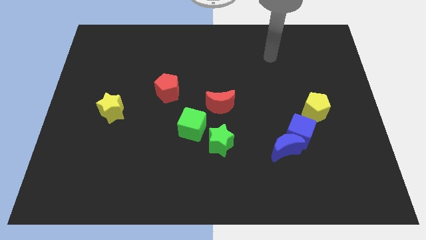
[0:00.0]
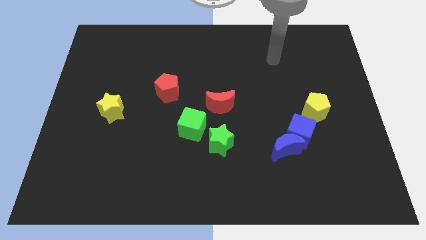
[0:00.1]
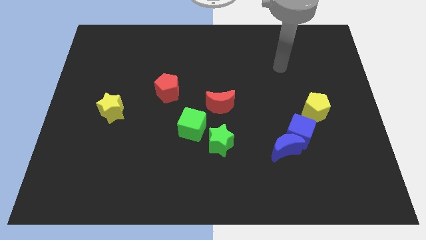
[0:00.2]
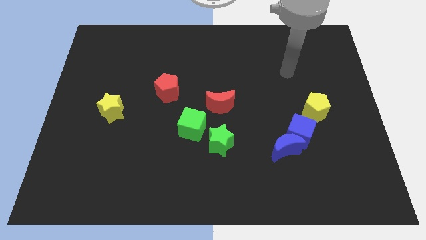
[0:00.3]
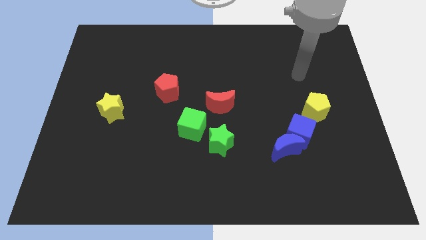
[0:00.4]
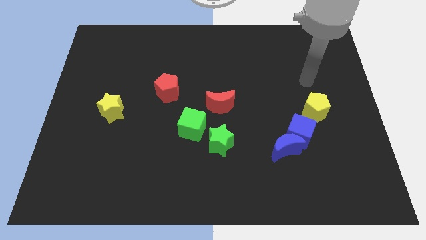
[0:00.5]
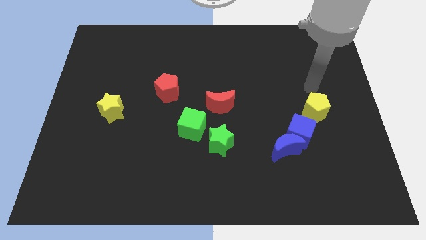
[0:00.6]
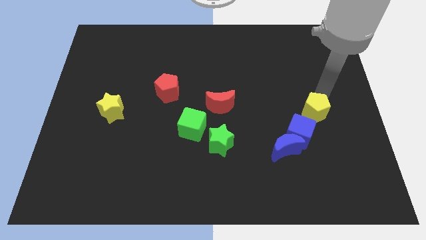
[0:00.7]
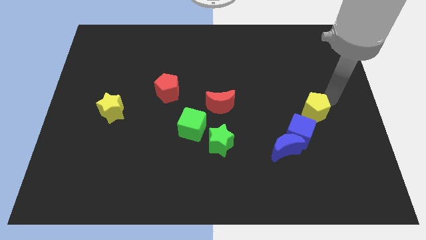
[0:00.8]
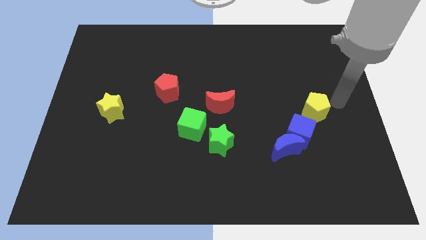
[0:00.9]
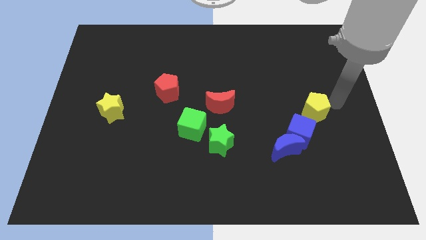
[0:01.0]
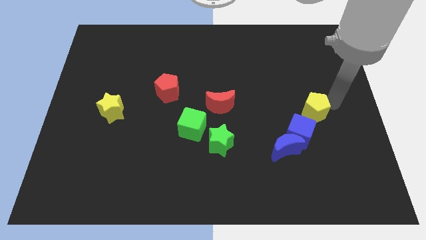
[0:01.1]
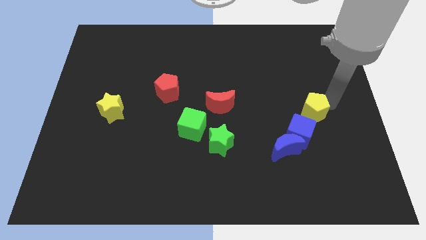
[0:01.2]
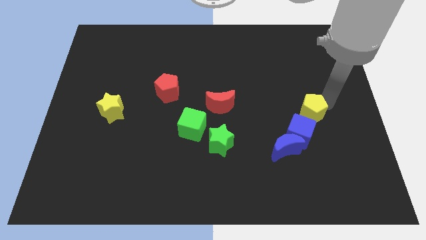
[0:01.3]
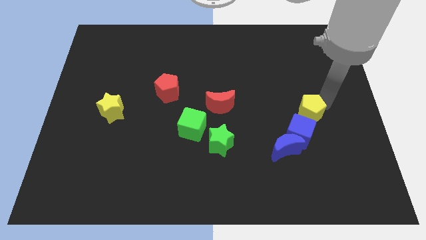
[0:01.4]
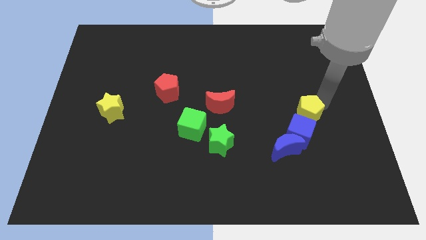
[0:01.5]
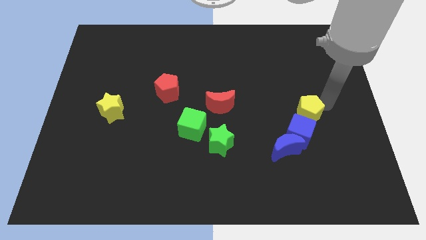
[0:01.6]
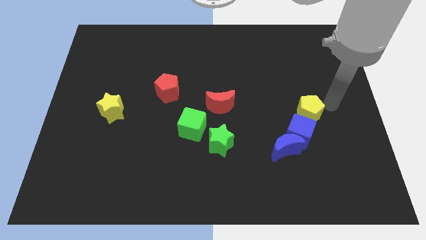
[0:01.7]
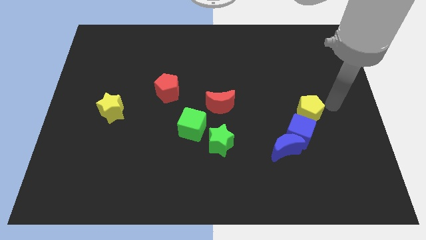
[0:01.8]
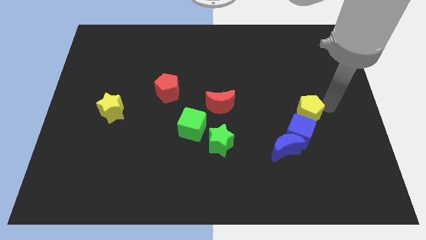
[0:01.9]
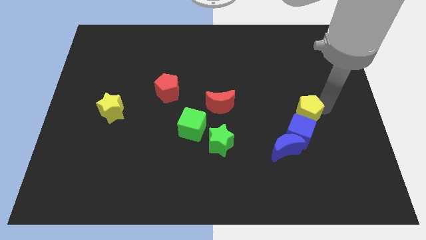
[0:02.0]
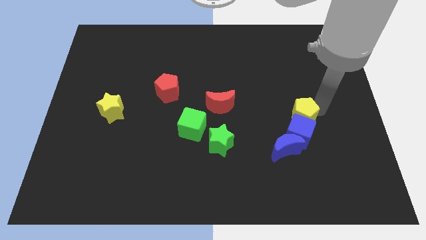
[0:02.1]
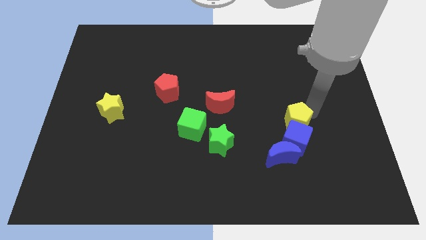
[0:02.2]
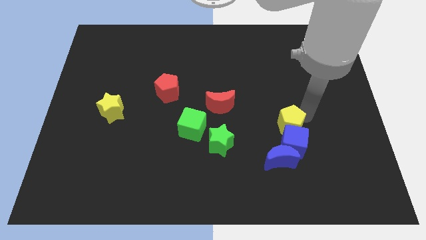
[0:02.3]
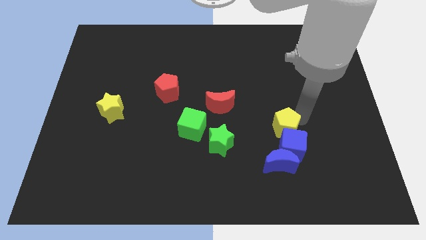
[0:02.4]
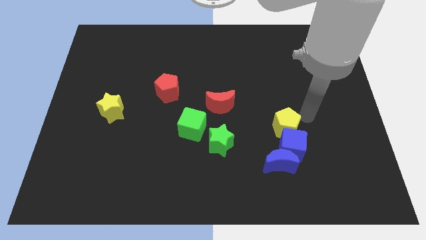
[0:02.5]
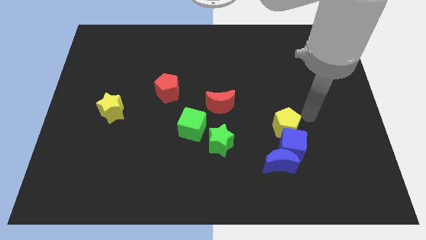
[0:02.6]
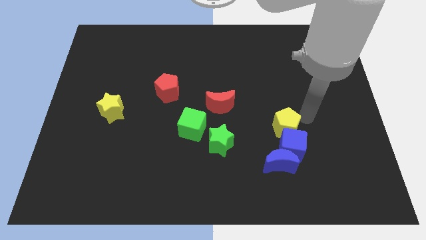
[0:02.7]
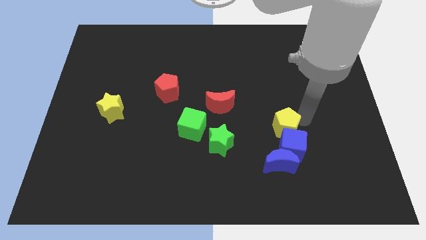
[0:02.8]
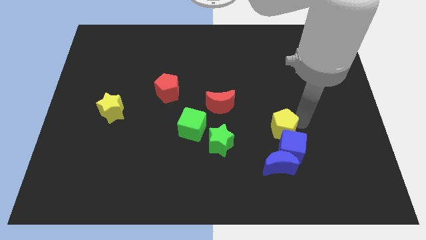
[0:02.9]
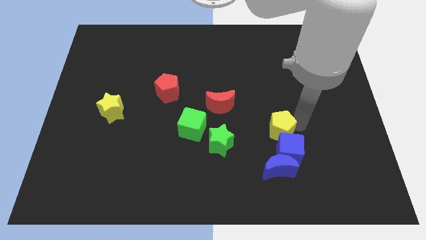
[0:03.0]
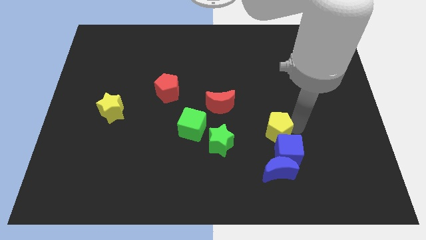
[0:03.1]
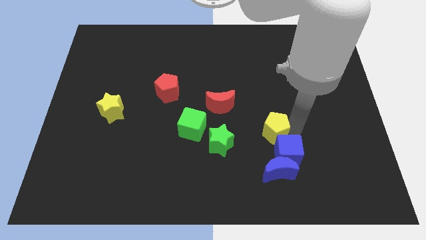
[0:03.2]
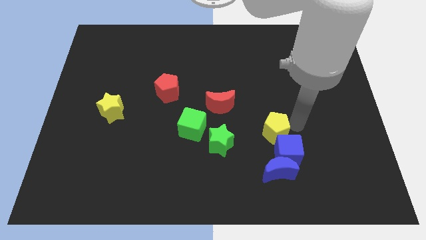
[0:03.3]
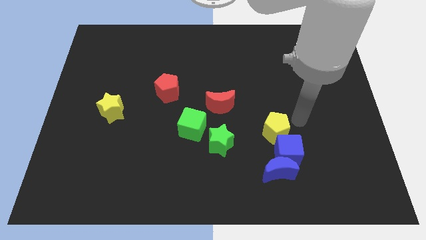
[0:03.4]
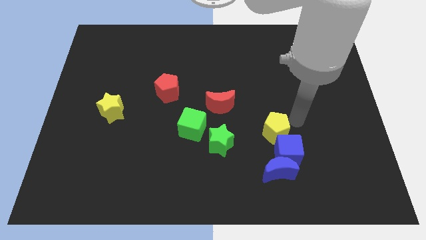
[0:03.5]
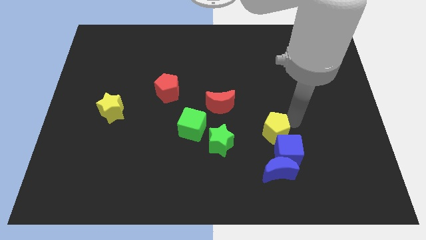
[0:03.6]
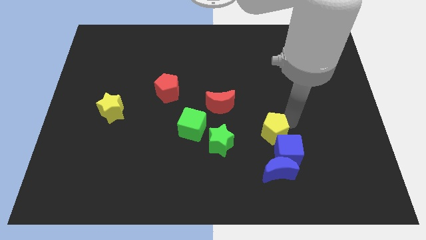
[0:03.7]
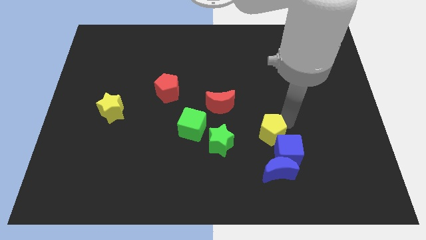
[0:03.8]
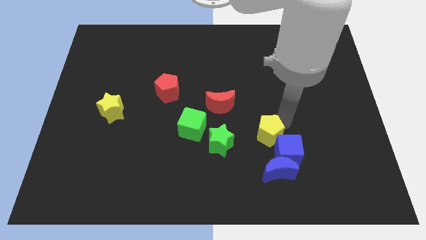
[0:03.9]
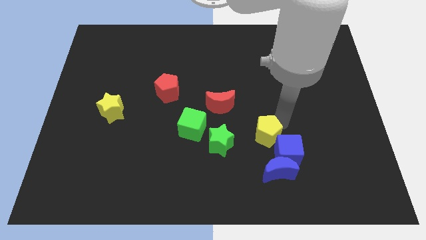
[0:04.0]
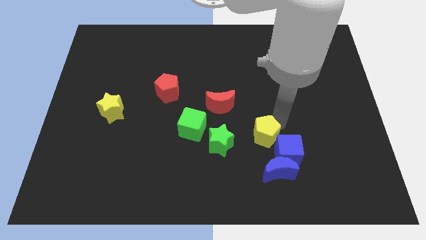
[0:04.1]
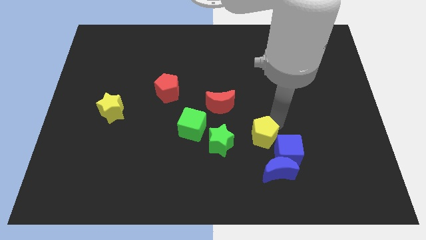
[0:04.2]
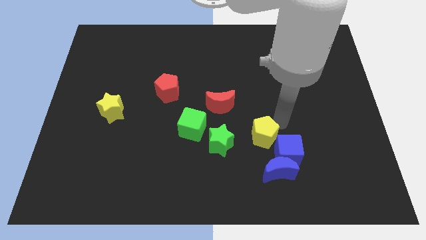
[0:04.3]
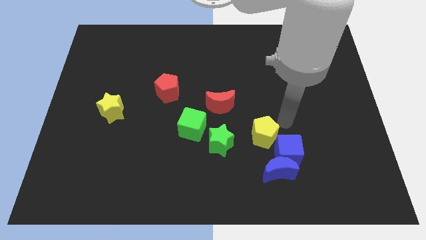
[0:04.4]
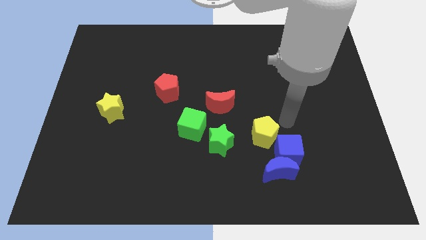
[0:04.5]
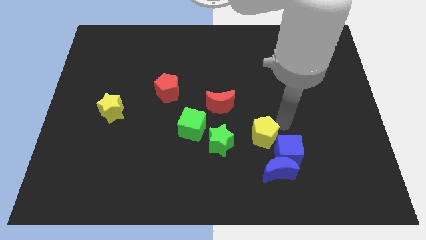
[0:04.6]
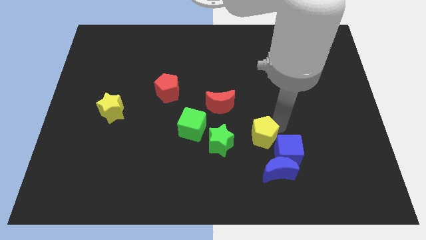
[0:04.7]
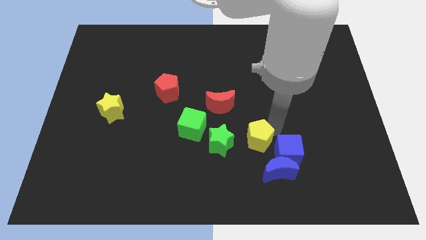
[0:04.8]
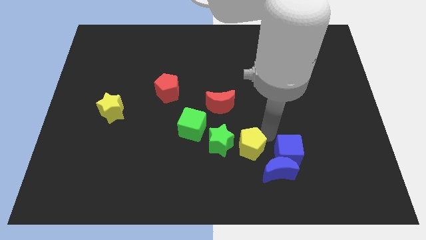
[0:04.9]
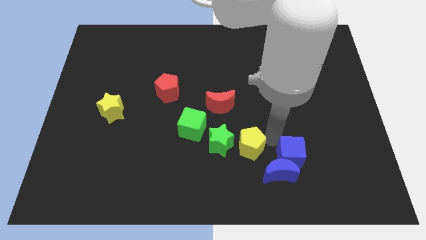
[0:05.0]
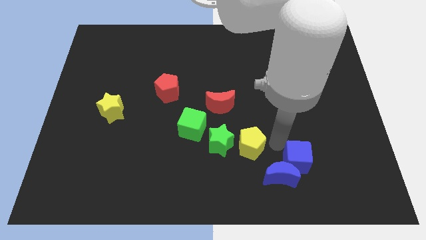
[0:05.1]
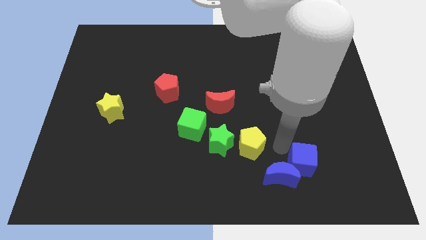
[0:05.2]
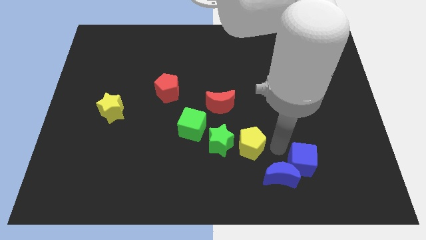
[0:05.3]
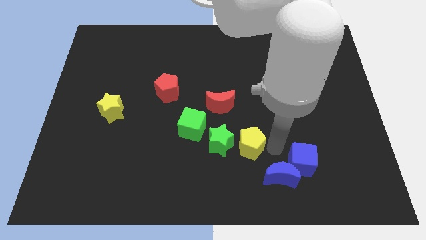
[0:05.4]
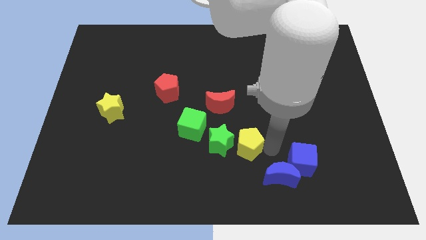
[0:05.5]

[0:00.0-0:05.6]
move the yellow pentagon to the green star
